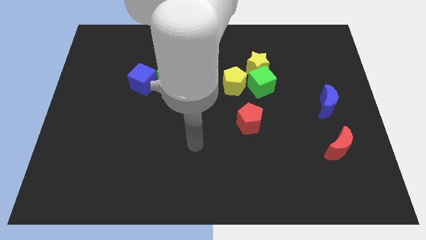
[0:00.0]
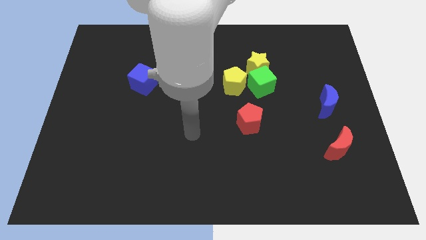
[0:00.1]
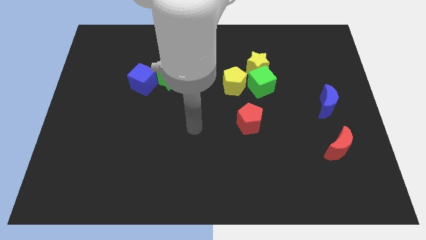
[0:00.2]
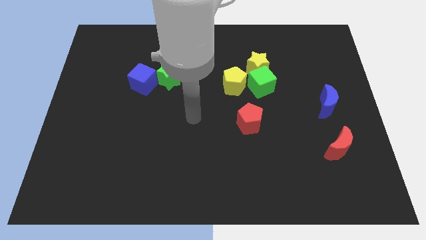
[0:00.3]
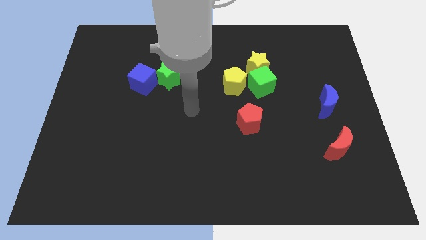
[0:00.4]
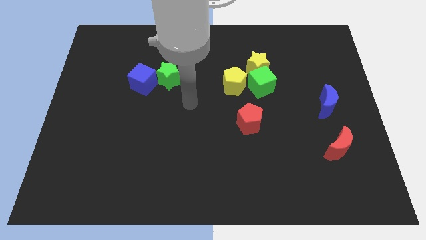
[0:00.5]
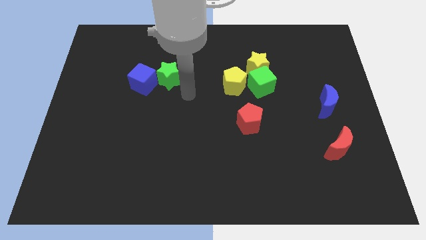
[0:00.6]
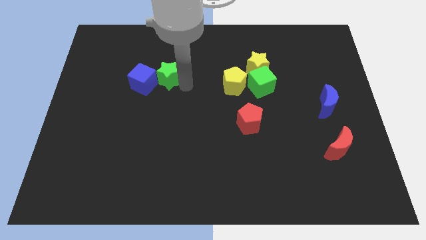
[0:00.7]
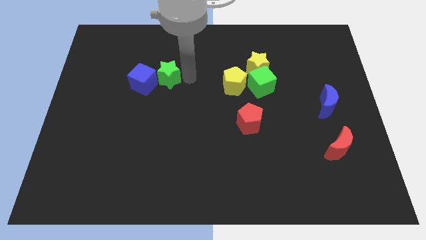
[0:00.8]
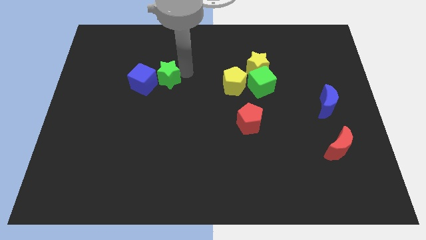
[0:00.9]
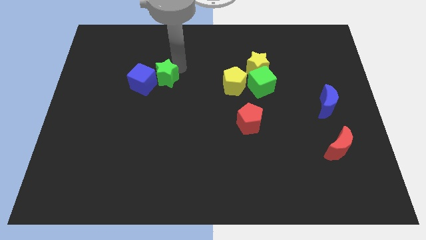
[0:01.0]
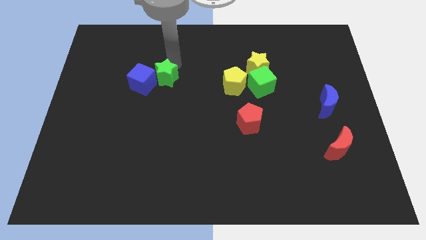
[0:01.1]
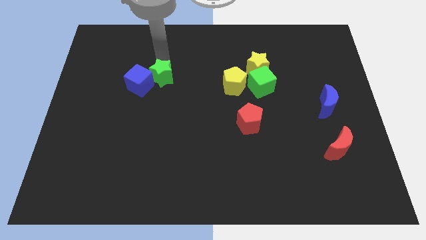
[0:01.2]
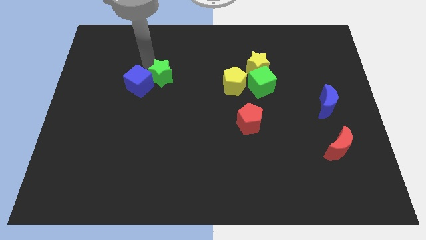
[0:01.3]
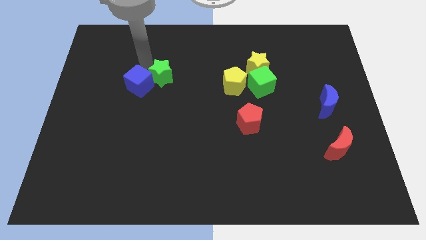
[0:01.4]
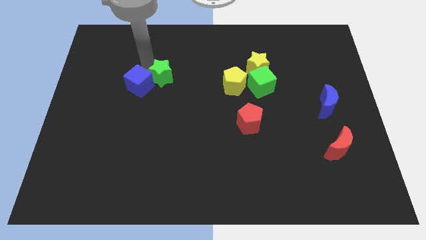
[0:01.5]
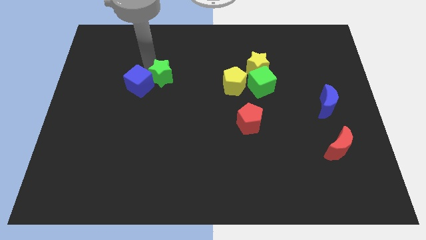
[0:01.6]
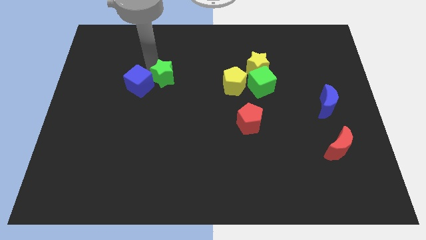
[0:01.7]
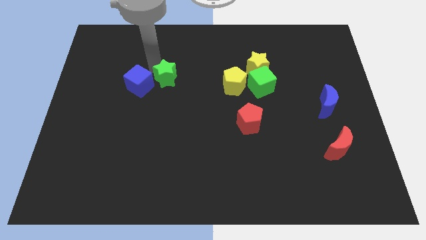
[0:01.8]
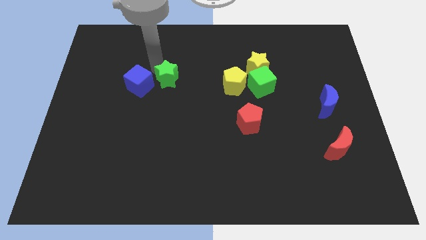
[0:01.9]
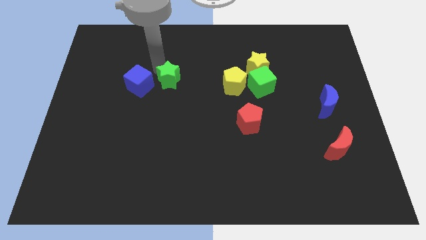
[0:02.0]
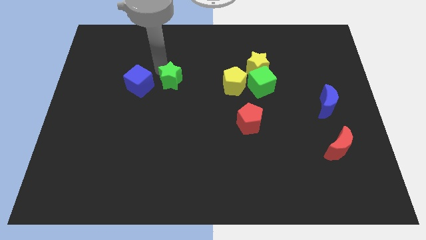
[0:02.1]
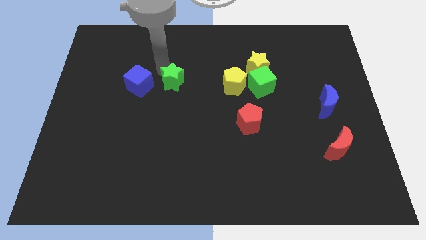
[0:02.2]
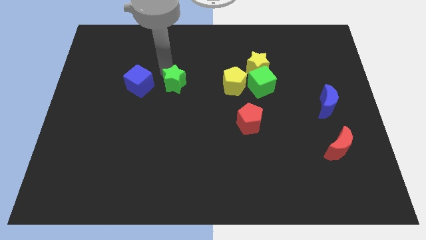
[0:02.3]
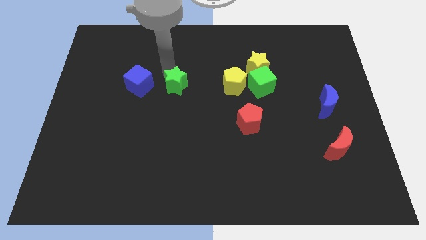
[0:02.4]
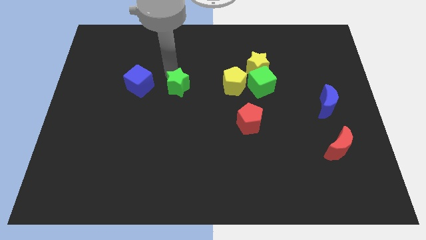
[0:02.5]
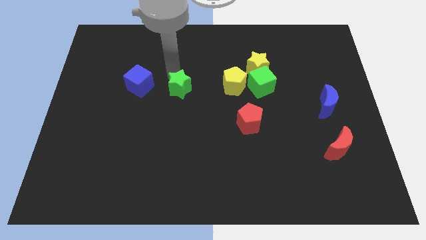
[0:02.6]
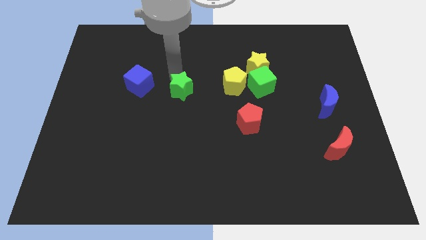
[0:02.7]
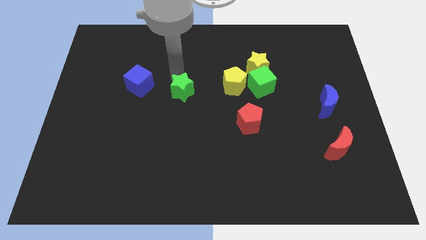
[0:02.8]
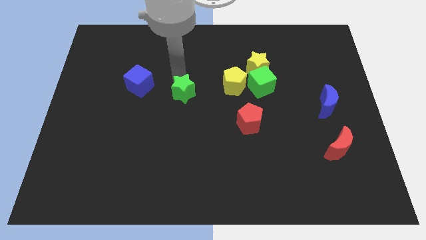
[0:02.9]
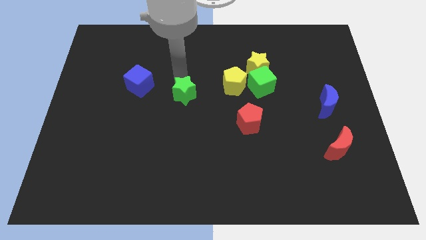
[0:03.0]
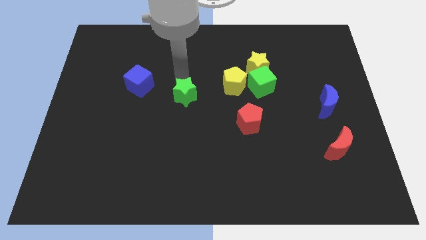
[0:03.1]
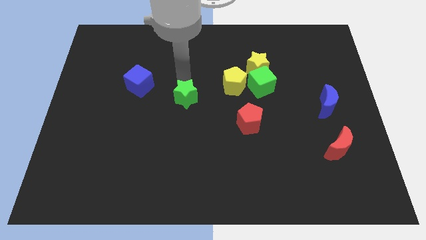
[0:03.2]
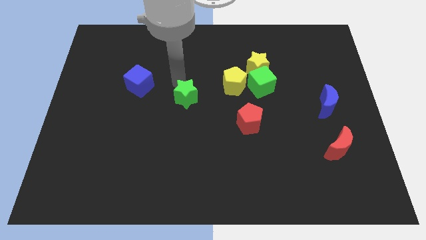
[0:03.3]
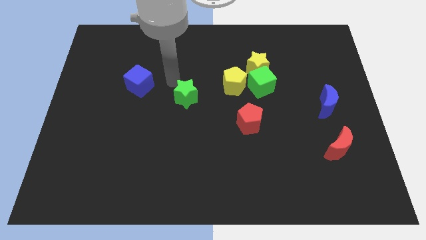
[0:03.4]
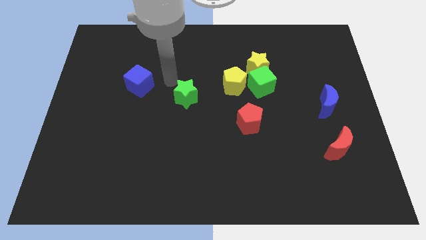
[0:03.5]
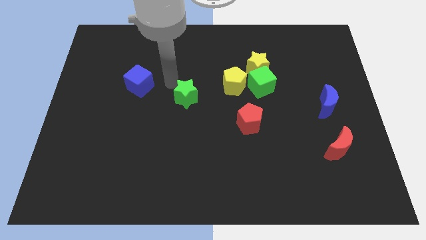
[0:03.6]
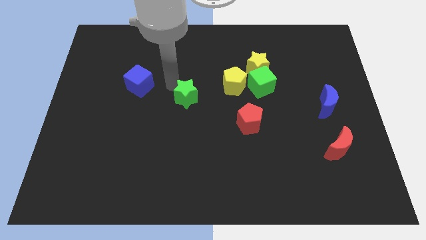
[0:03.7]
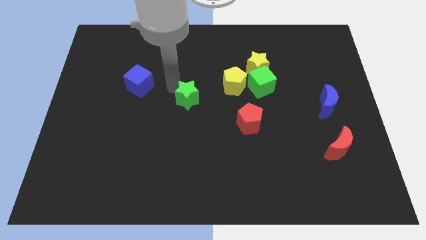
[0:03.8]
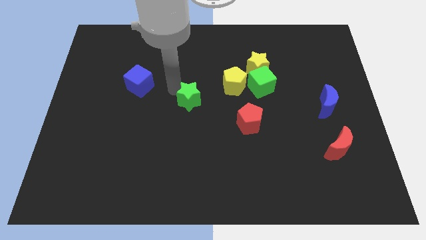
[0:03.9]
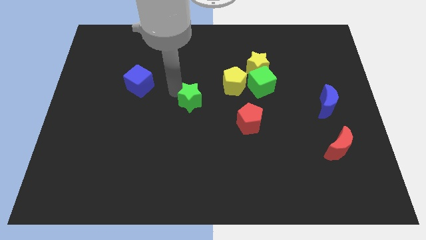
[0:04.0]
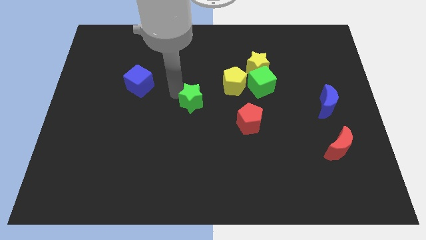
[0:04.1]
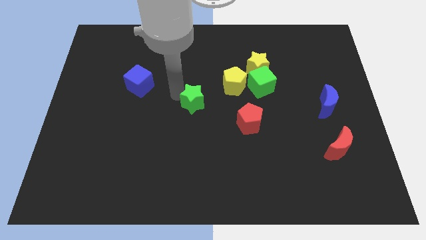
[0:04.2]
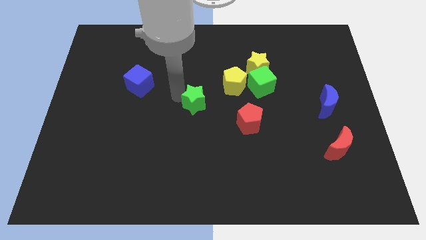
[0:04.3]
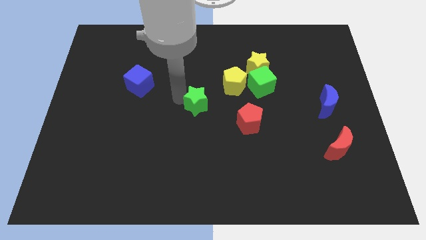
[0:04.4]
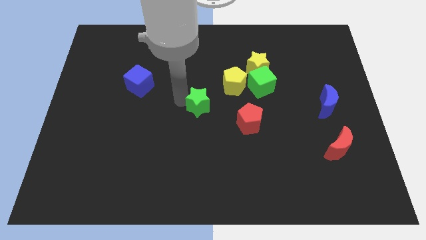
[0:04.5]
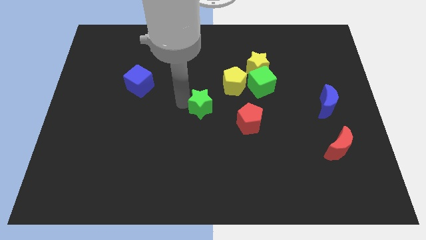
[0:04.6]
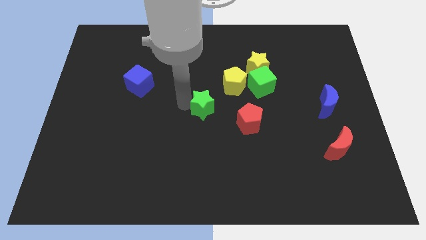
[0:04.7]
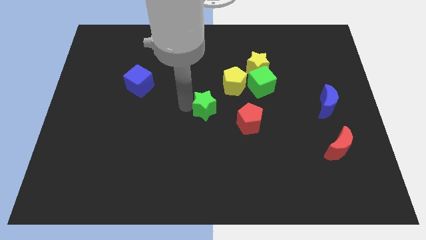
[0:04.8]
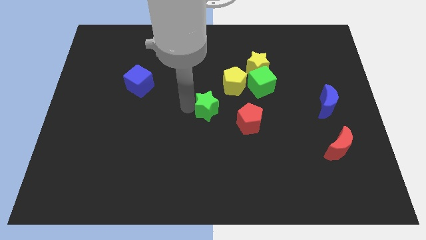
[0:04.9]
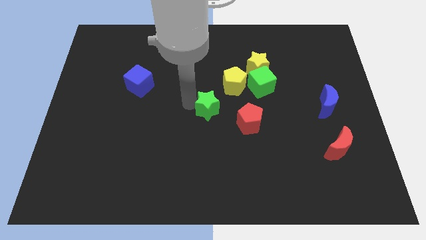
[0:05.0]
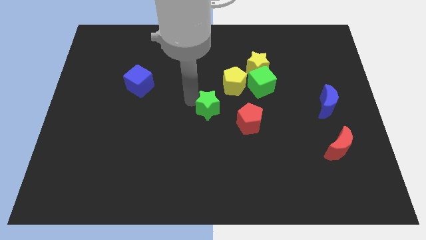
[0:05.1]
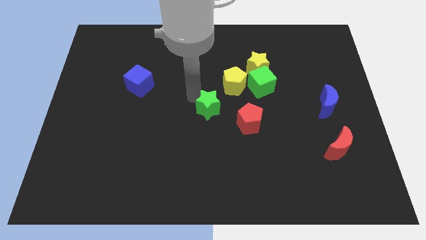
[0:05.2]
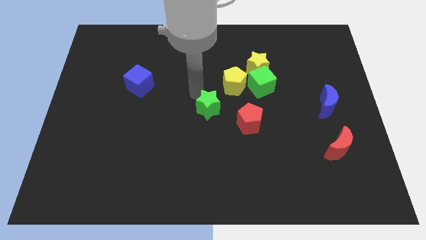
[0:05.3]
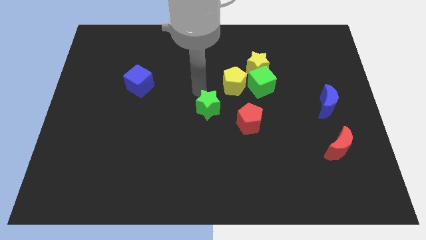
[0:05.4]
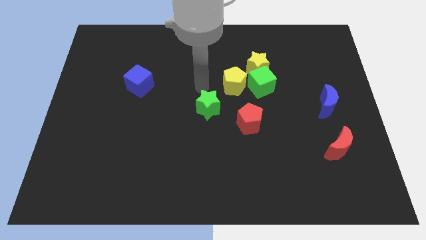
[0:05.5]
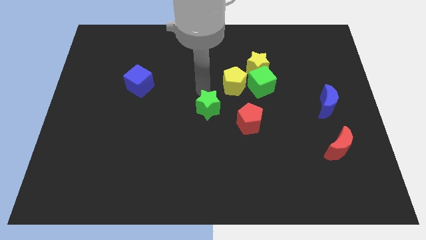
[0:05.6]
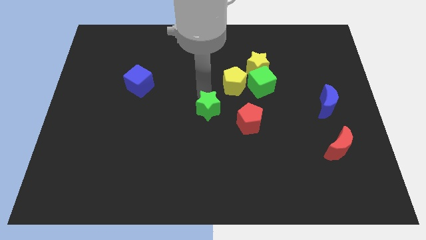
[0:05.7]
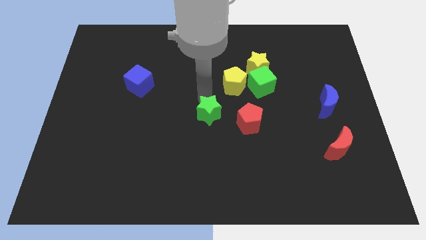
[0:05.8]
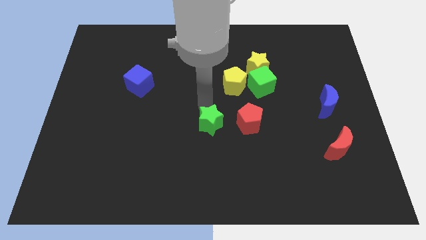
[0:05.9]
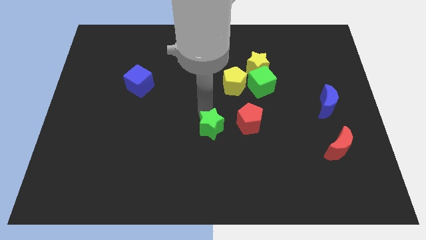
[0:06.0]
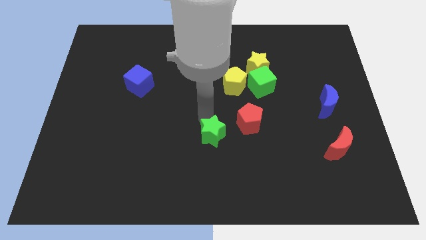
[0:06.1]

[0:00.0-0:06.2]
put the green star to the bottom left of the red pentagon

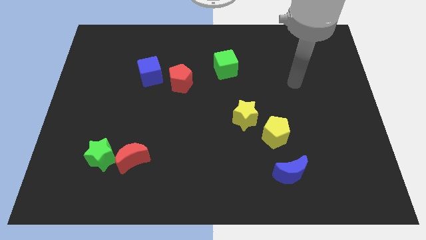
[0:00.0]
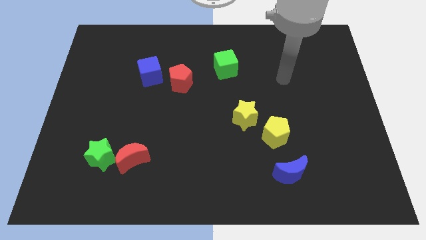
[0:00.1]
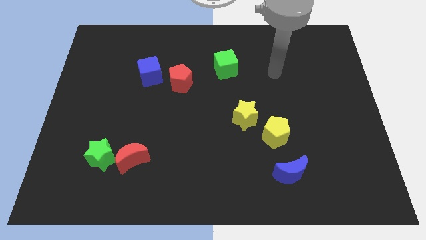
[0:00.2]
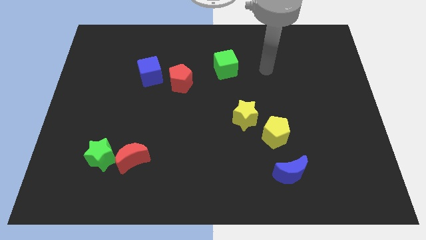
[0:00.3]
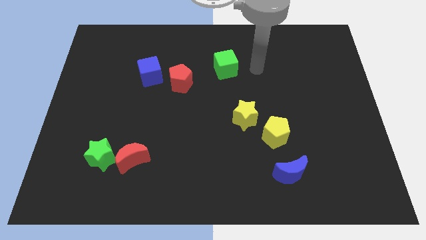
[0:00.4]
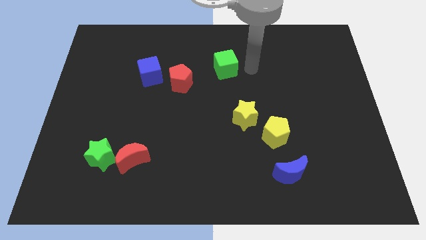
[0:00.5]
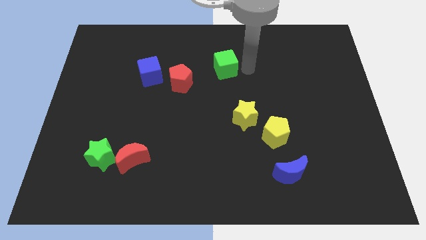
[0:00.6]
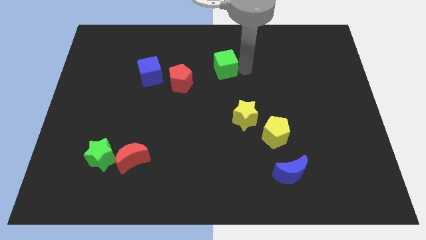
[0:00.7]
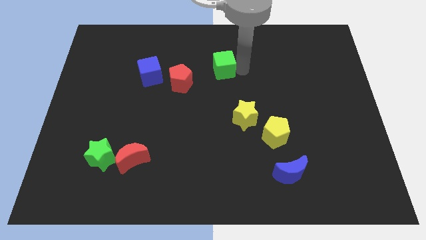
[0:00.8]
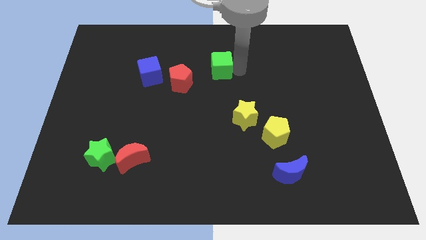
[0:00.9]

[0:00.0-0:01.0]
put the green cube diagonally up and to the right of the red pentagon
